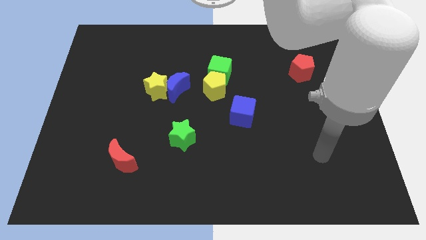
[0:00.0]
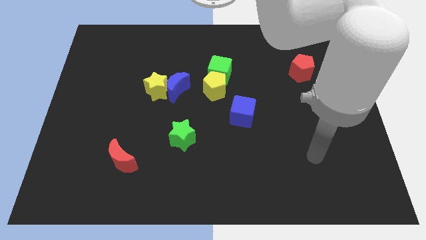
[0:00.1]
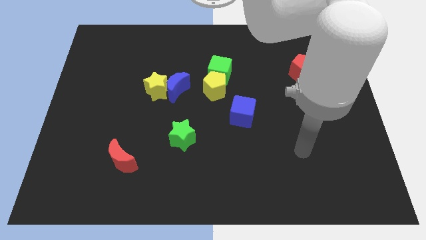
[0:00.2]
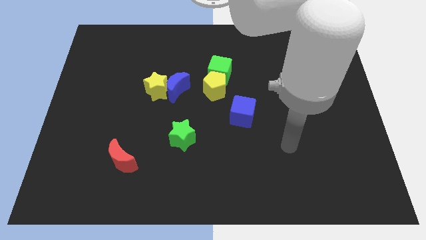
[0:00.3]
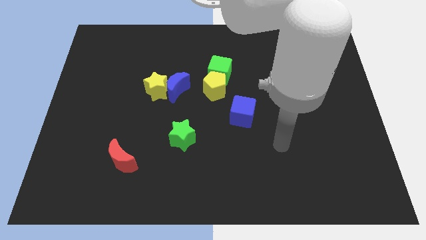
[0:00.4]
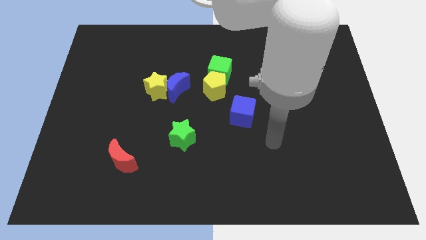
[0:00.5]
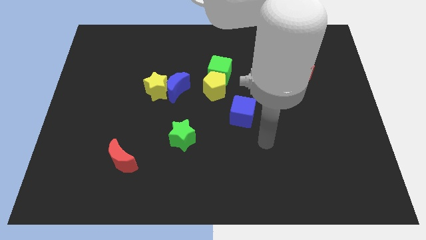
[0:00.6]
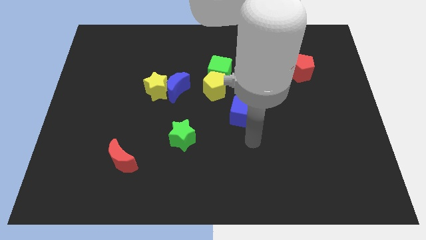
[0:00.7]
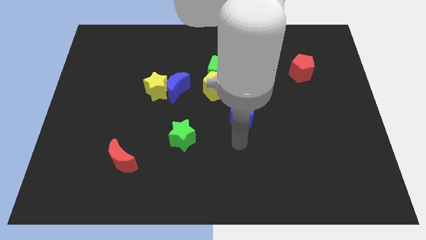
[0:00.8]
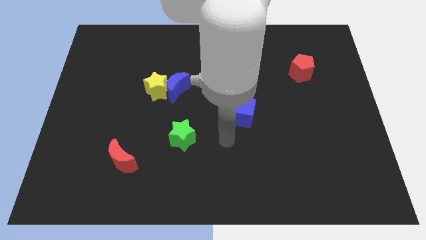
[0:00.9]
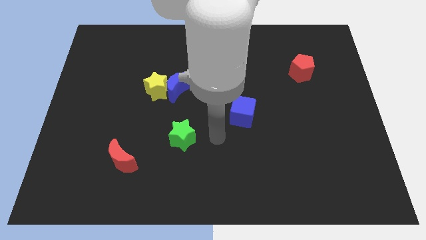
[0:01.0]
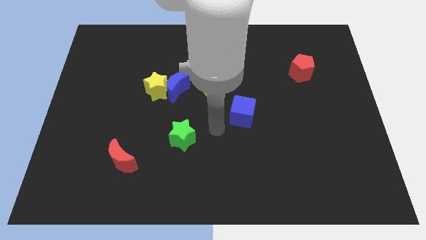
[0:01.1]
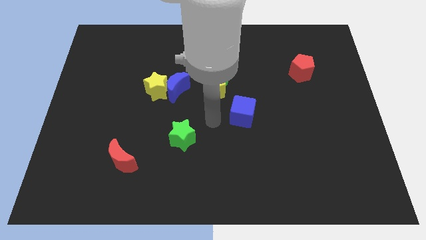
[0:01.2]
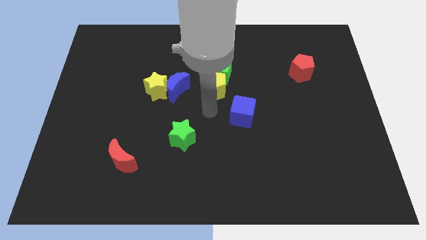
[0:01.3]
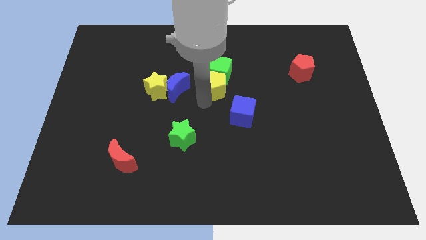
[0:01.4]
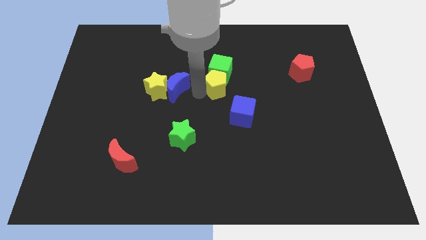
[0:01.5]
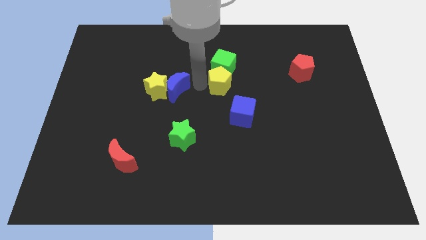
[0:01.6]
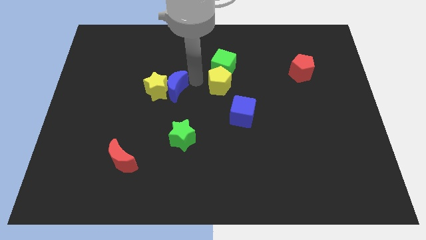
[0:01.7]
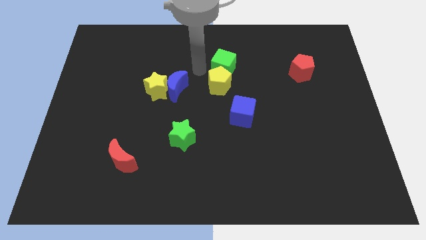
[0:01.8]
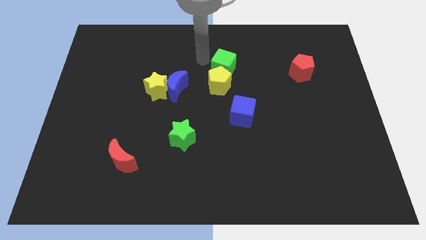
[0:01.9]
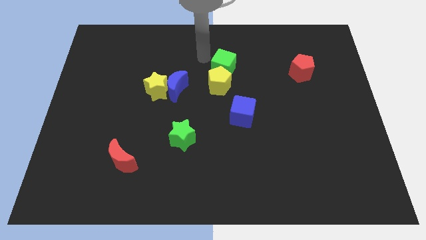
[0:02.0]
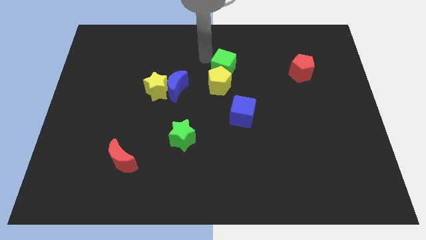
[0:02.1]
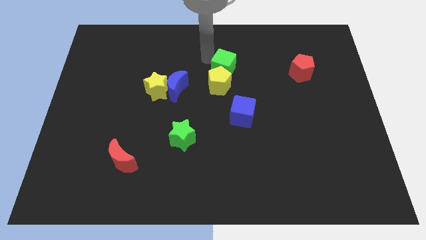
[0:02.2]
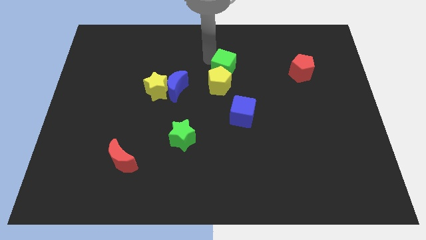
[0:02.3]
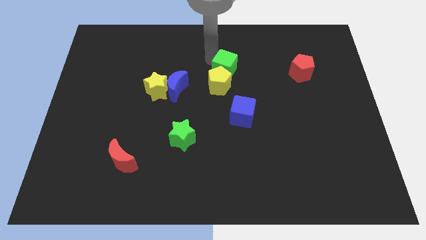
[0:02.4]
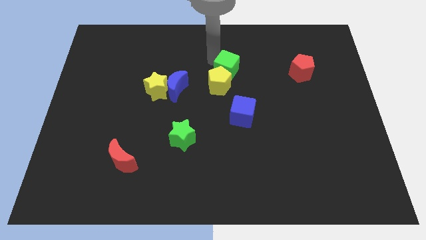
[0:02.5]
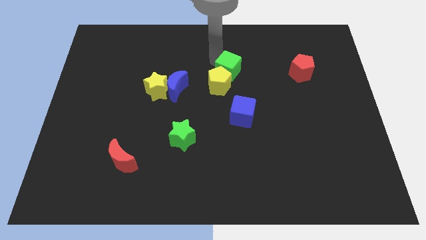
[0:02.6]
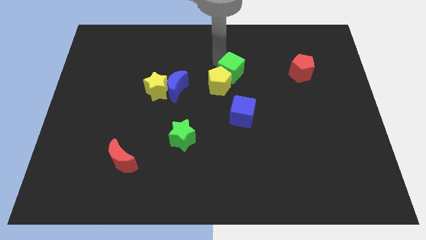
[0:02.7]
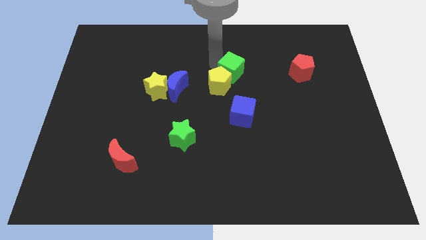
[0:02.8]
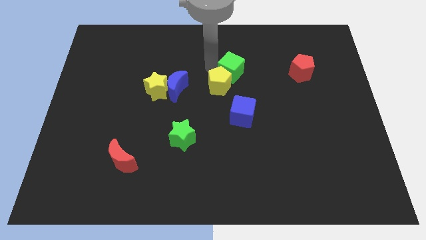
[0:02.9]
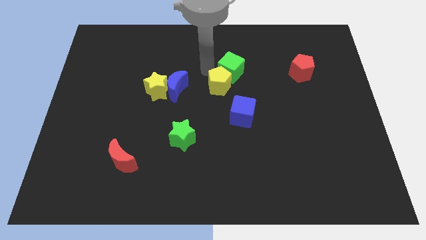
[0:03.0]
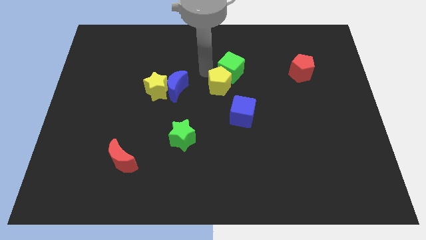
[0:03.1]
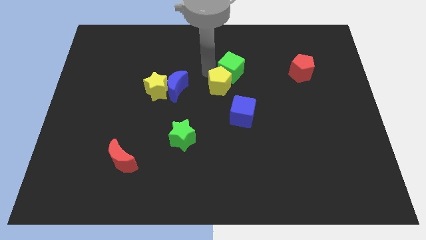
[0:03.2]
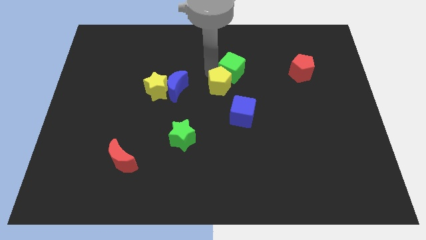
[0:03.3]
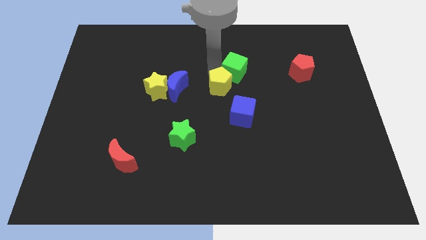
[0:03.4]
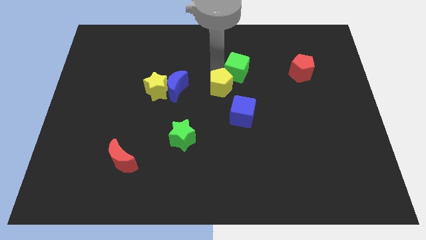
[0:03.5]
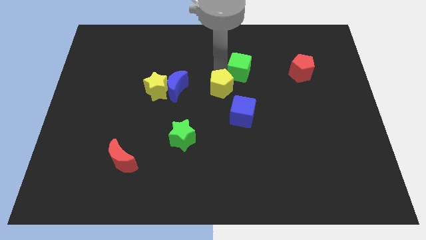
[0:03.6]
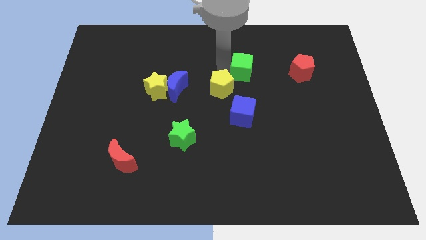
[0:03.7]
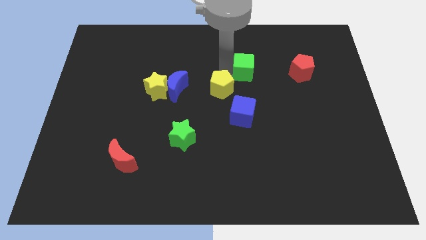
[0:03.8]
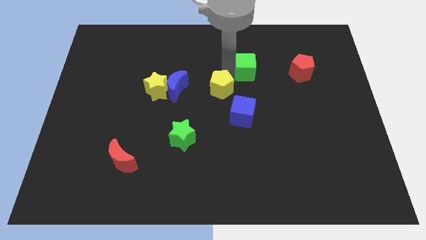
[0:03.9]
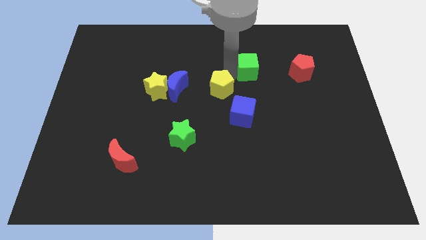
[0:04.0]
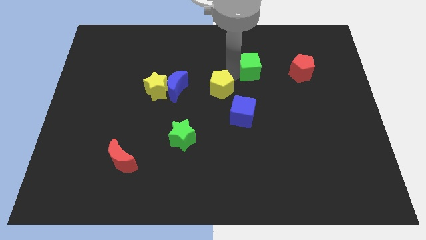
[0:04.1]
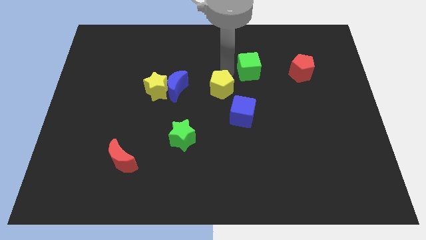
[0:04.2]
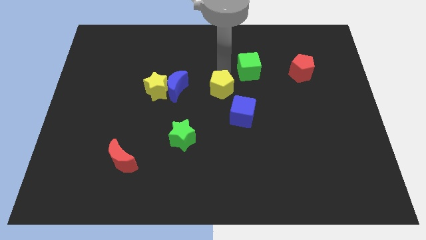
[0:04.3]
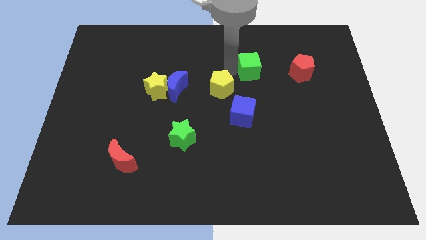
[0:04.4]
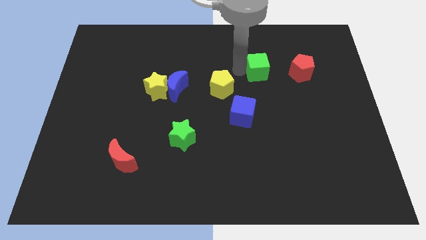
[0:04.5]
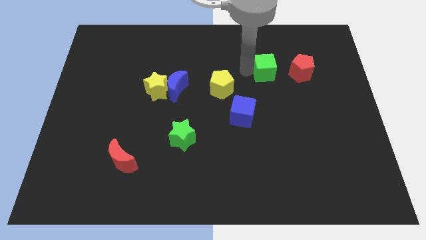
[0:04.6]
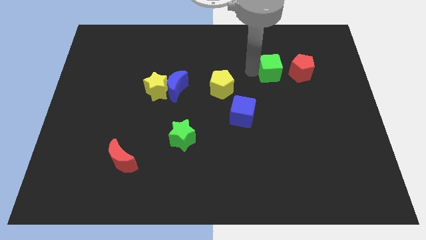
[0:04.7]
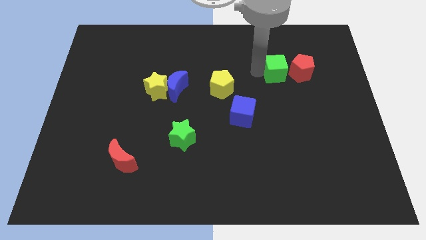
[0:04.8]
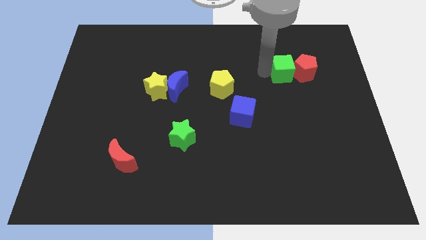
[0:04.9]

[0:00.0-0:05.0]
push the green cube to the red pentagon

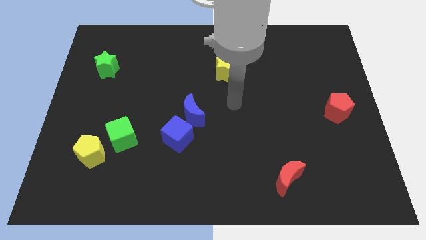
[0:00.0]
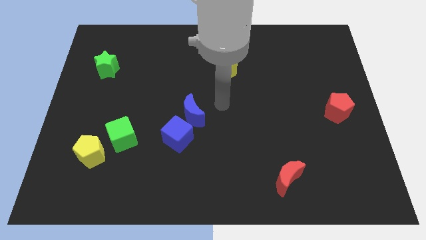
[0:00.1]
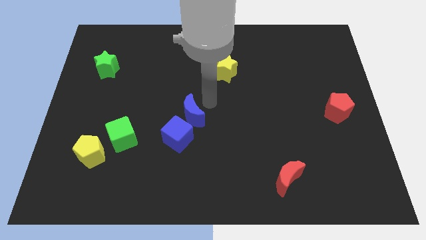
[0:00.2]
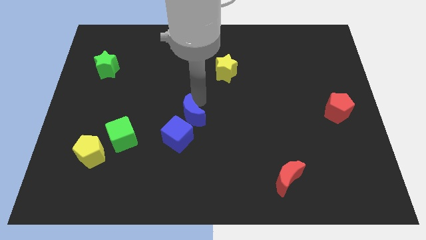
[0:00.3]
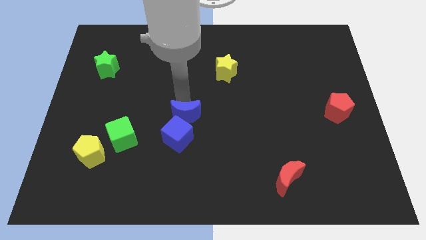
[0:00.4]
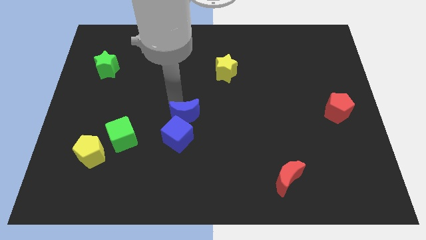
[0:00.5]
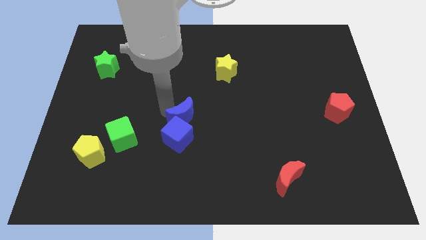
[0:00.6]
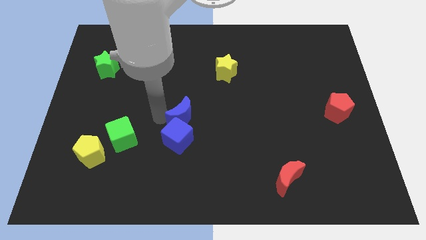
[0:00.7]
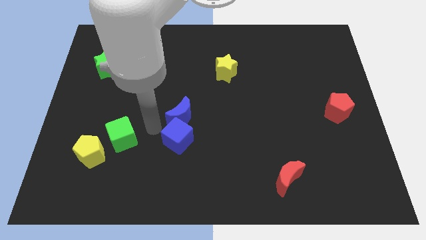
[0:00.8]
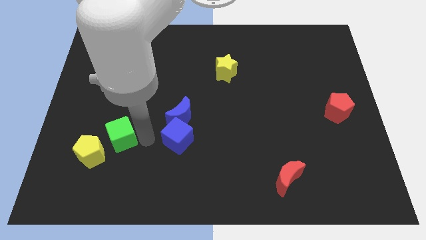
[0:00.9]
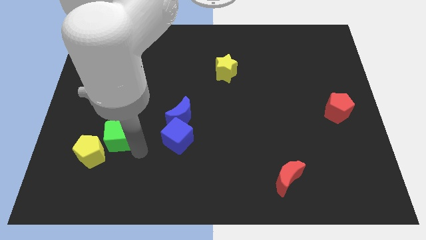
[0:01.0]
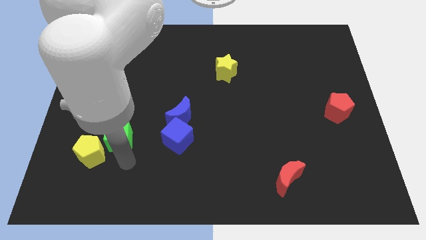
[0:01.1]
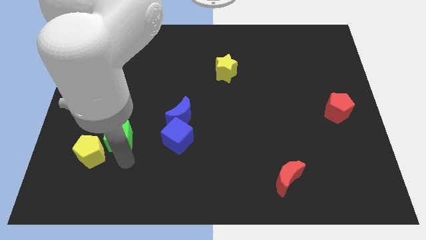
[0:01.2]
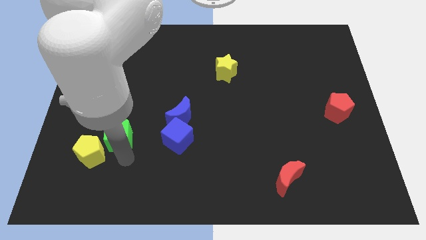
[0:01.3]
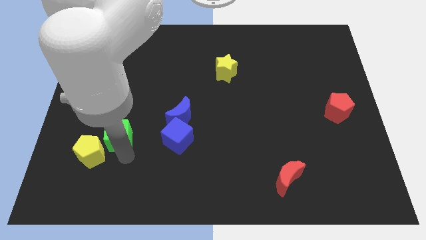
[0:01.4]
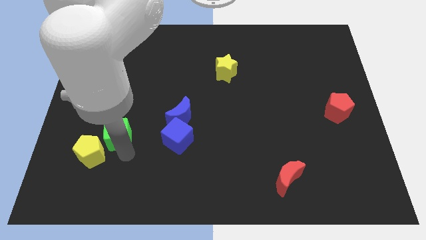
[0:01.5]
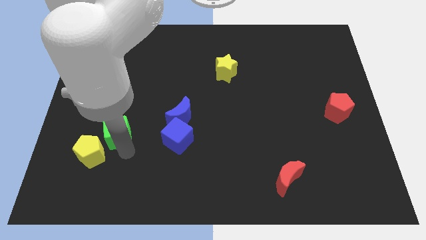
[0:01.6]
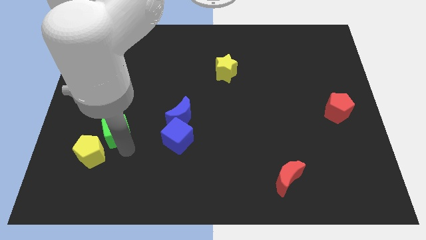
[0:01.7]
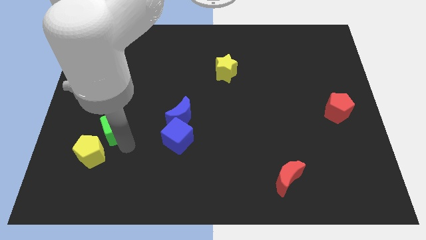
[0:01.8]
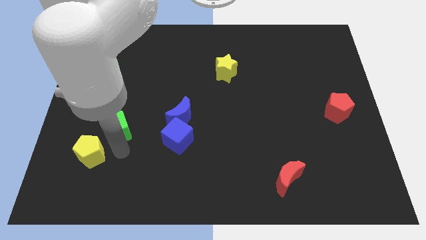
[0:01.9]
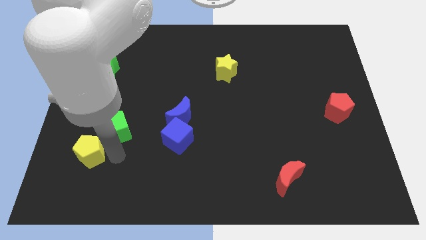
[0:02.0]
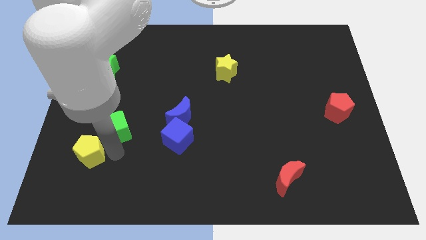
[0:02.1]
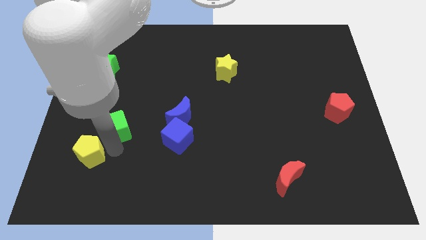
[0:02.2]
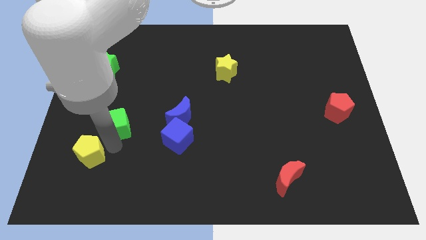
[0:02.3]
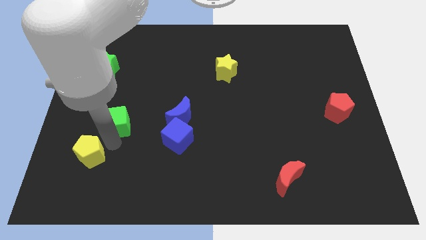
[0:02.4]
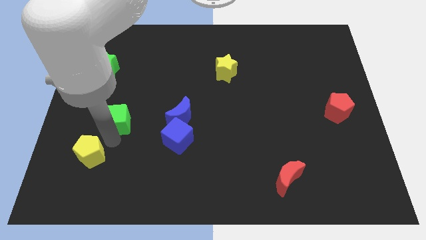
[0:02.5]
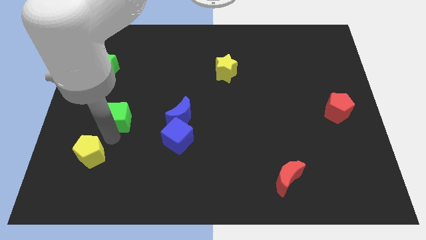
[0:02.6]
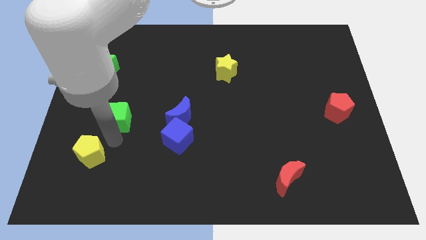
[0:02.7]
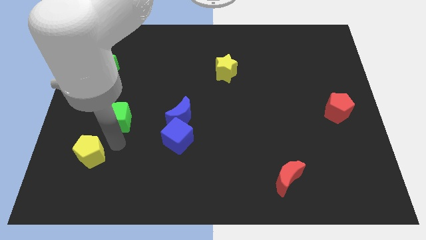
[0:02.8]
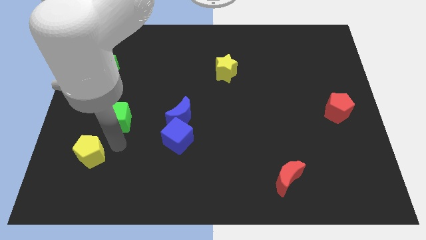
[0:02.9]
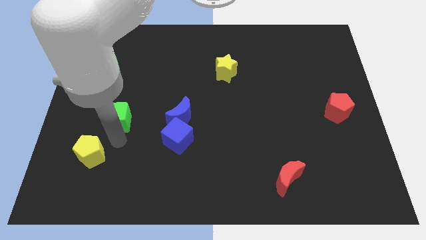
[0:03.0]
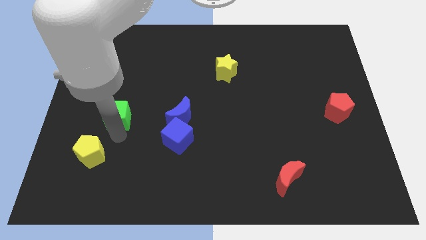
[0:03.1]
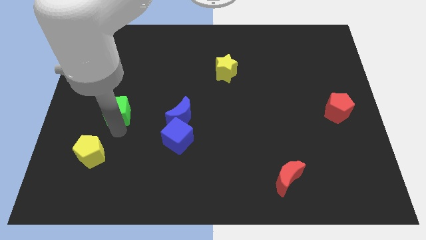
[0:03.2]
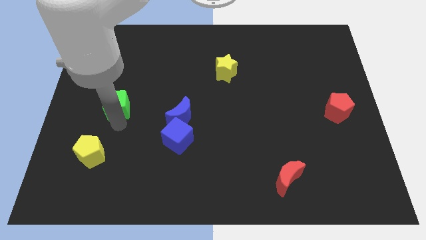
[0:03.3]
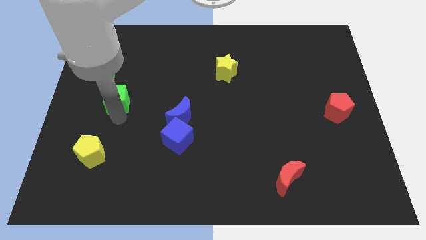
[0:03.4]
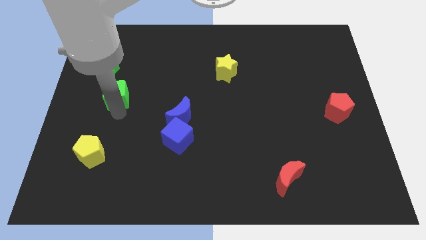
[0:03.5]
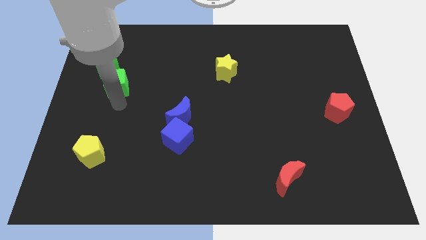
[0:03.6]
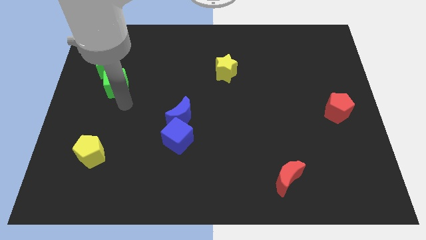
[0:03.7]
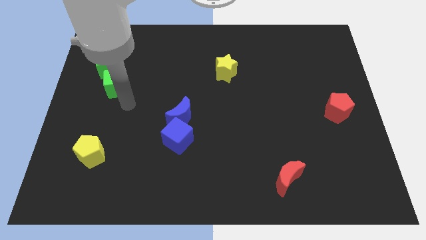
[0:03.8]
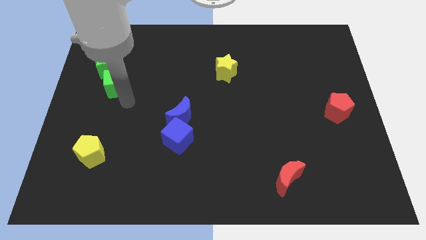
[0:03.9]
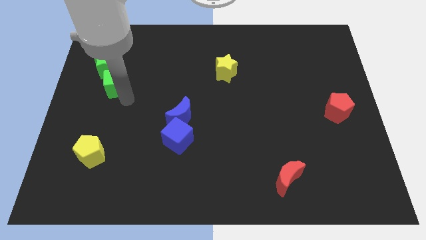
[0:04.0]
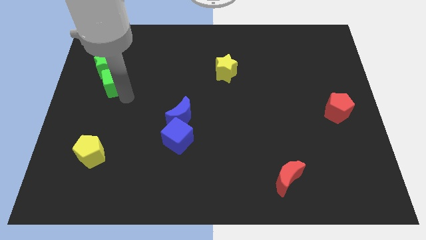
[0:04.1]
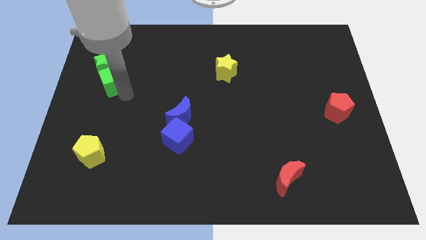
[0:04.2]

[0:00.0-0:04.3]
move the green cube next to the green star
